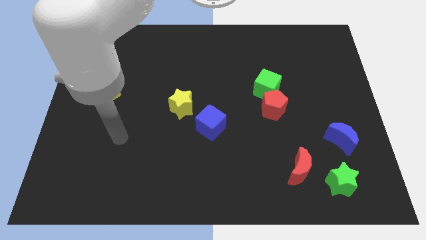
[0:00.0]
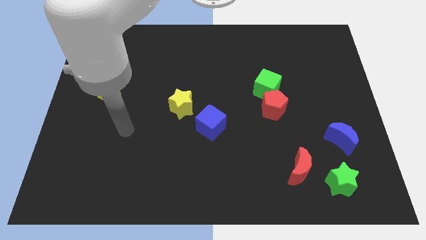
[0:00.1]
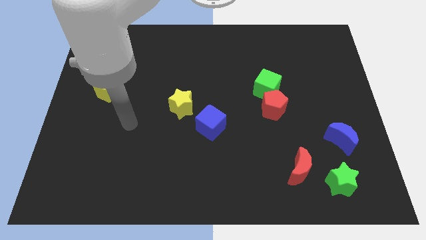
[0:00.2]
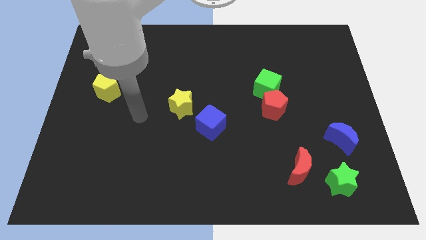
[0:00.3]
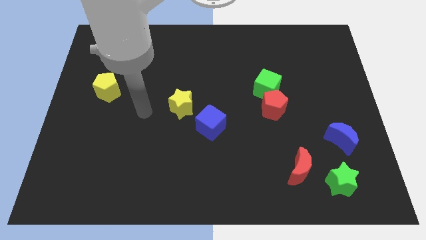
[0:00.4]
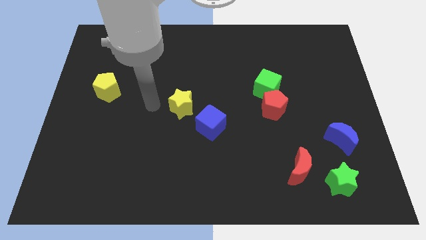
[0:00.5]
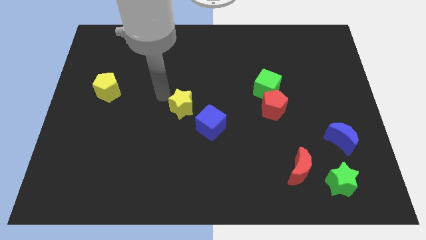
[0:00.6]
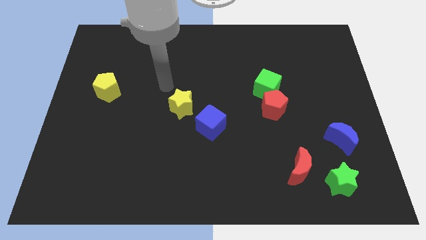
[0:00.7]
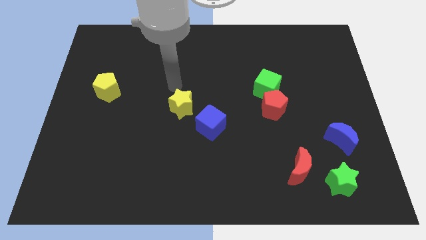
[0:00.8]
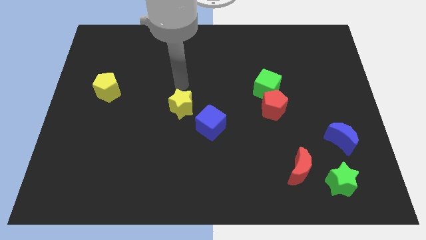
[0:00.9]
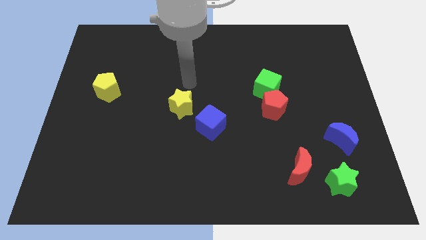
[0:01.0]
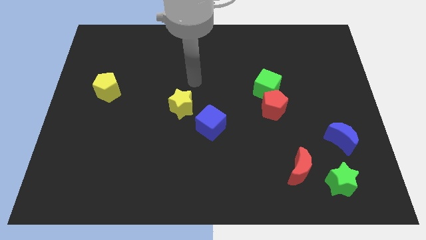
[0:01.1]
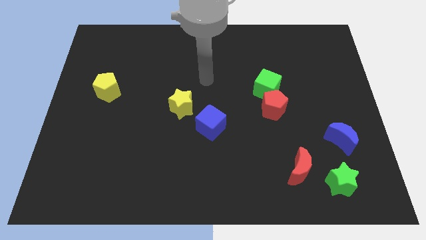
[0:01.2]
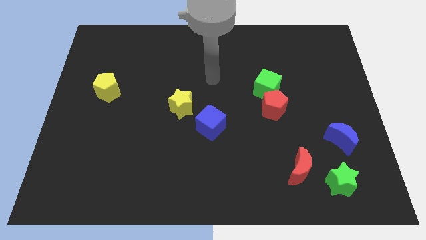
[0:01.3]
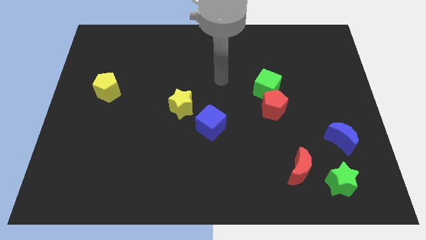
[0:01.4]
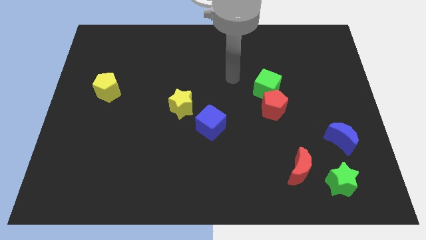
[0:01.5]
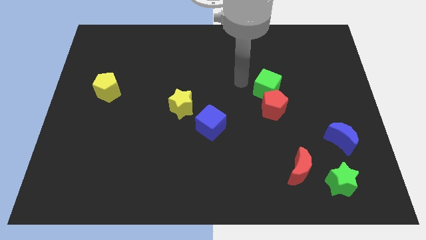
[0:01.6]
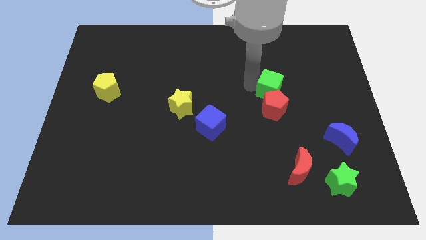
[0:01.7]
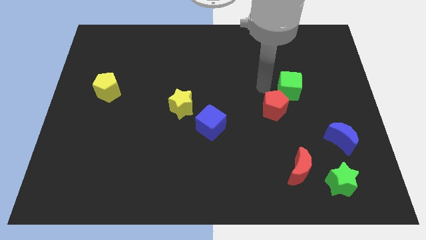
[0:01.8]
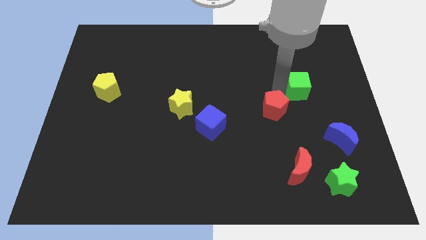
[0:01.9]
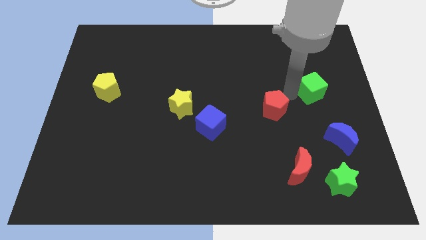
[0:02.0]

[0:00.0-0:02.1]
pull the red pentagon apart from the green cube

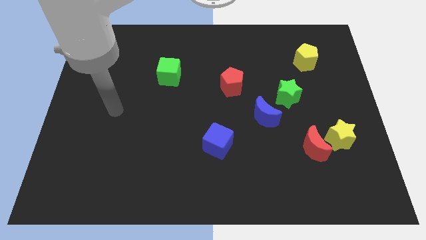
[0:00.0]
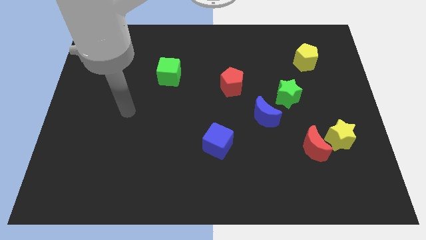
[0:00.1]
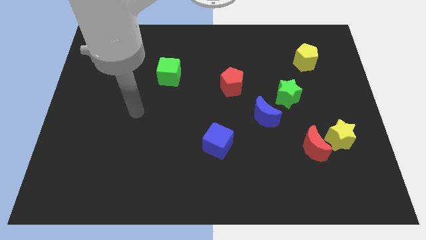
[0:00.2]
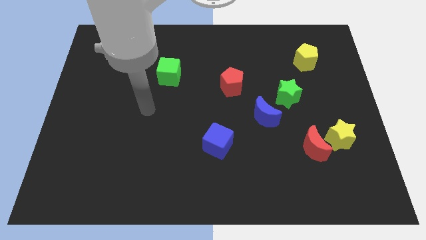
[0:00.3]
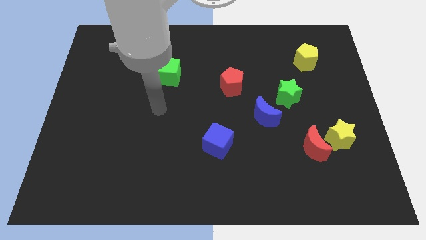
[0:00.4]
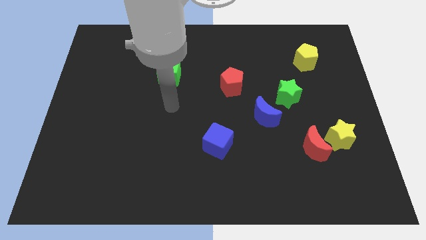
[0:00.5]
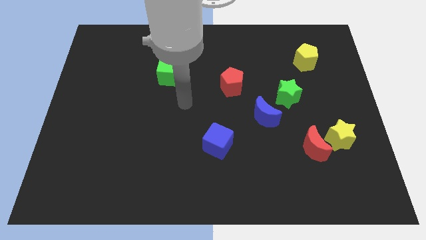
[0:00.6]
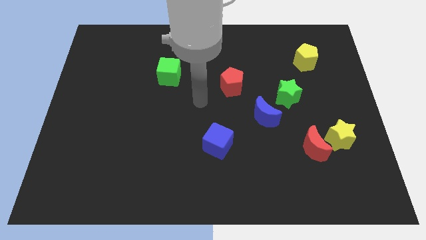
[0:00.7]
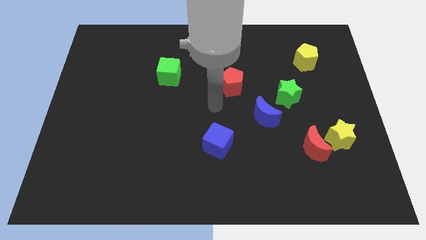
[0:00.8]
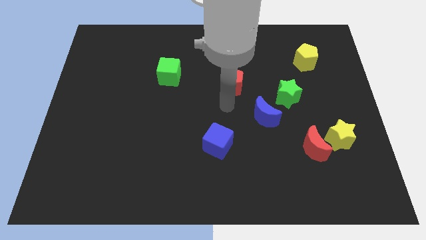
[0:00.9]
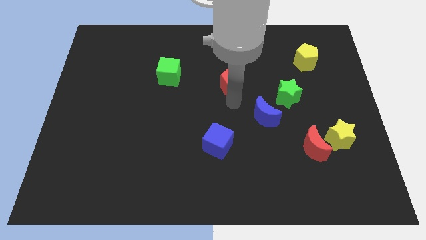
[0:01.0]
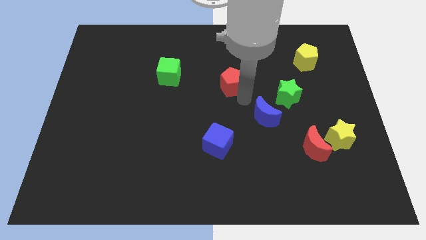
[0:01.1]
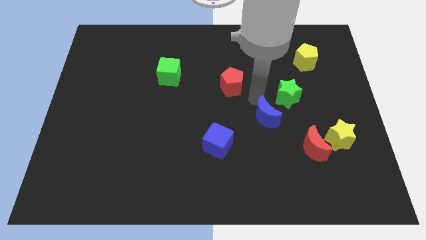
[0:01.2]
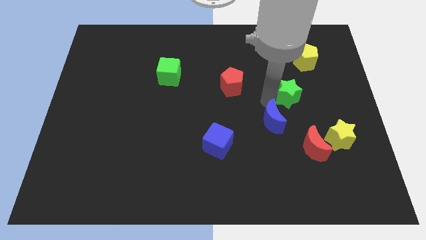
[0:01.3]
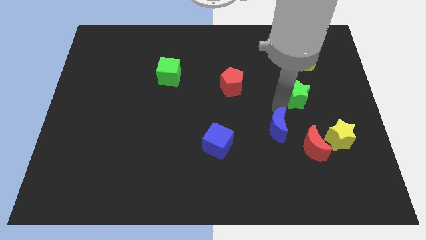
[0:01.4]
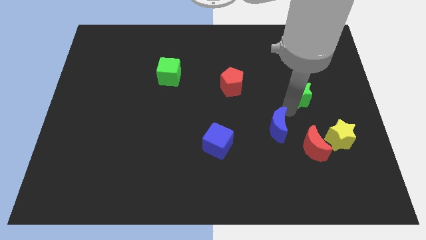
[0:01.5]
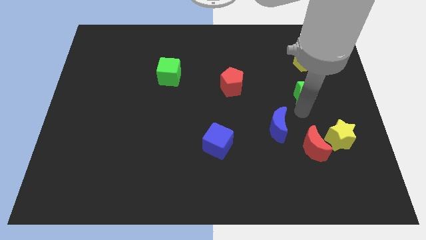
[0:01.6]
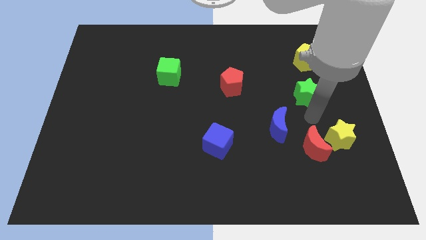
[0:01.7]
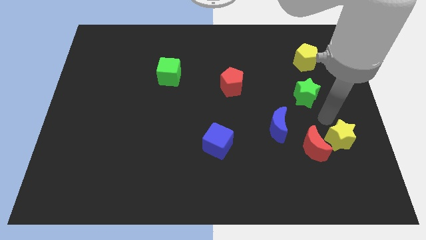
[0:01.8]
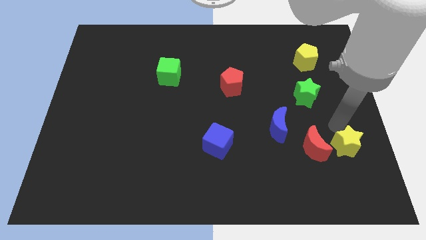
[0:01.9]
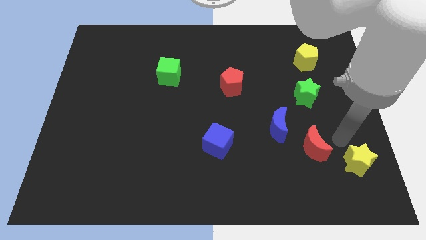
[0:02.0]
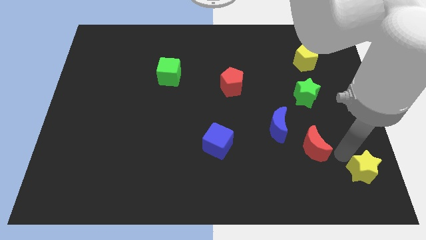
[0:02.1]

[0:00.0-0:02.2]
pull the red moon apart from the yellow star

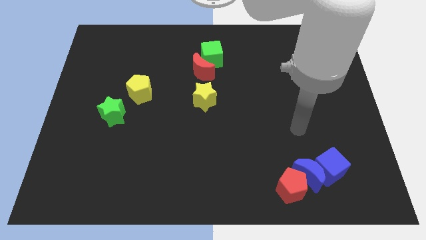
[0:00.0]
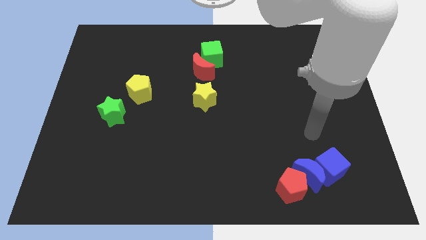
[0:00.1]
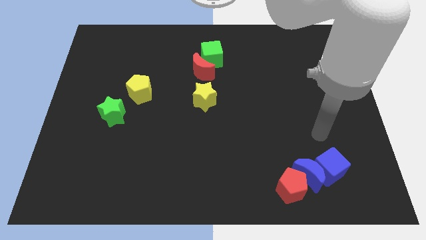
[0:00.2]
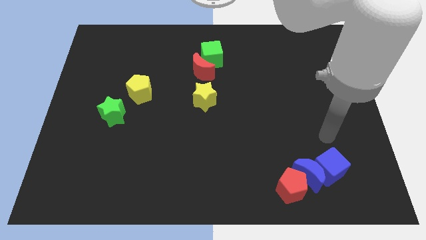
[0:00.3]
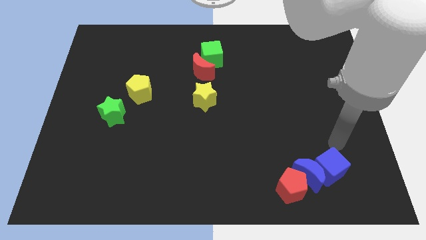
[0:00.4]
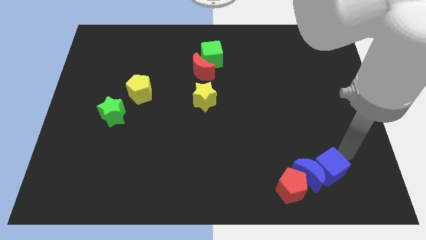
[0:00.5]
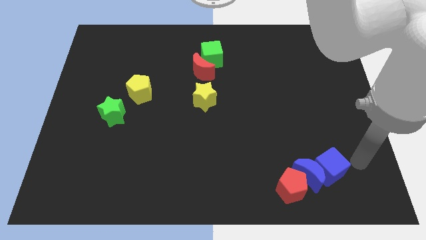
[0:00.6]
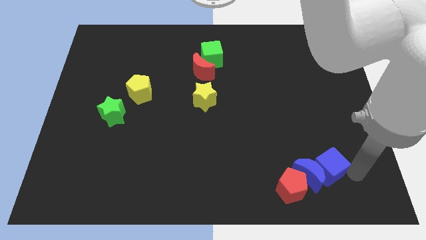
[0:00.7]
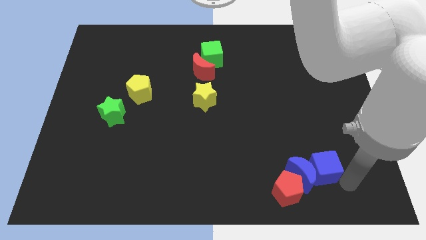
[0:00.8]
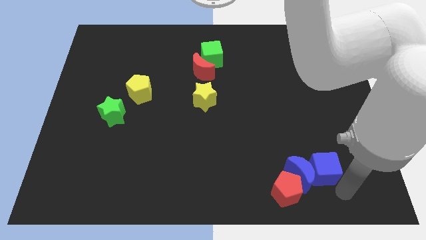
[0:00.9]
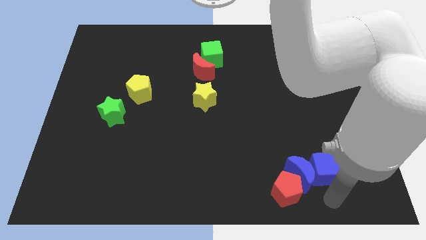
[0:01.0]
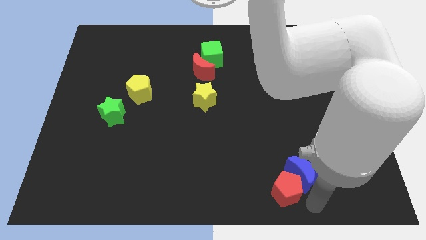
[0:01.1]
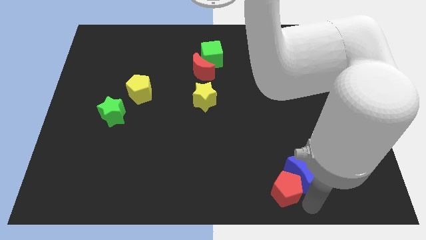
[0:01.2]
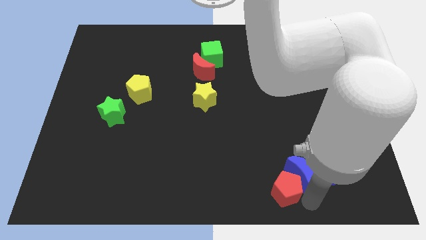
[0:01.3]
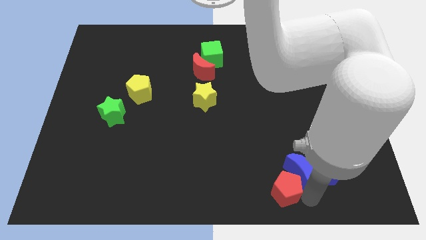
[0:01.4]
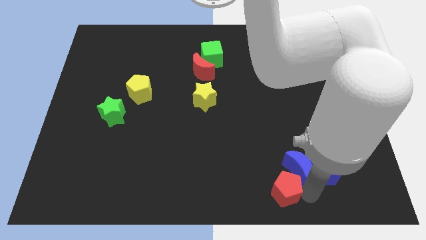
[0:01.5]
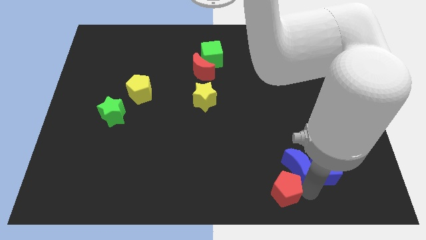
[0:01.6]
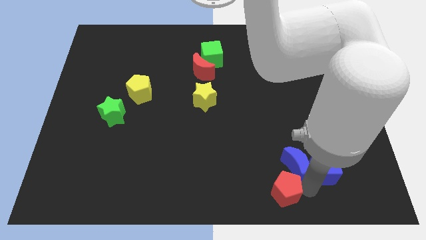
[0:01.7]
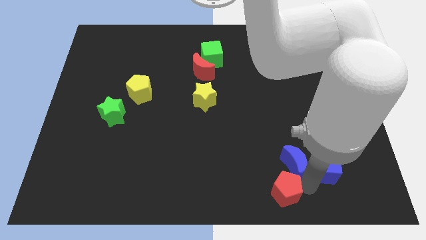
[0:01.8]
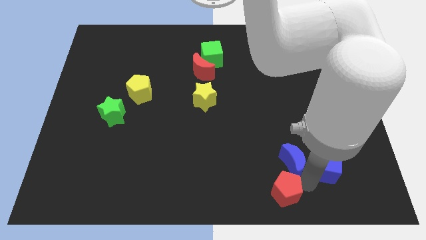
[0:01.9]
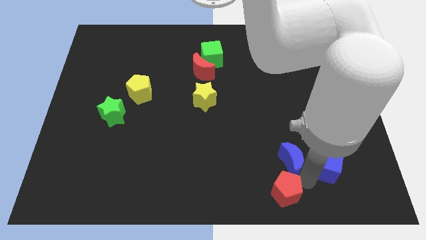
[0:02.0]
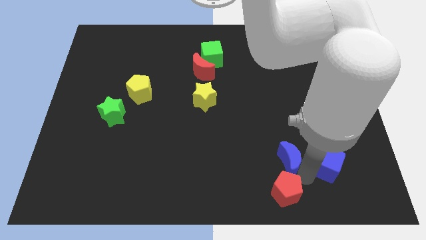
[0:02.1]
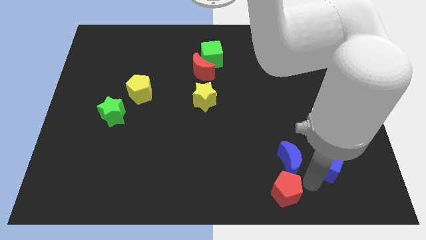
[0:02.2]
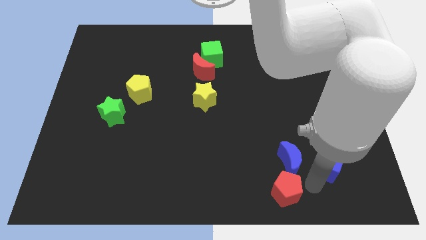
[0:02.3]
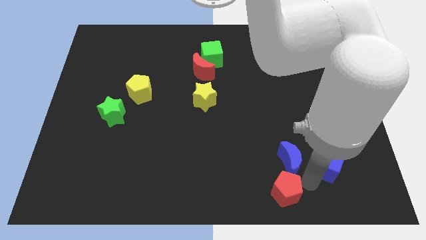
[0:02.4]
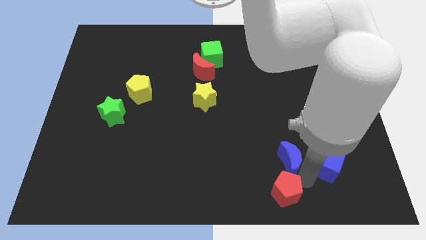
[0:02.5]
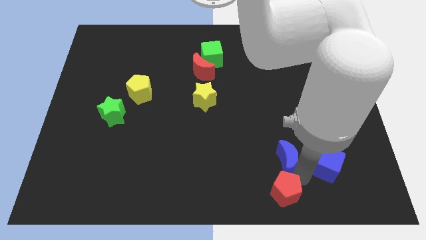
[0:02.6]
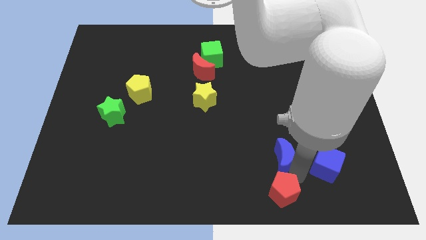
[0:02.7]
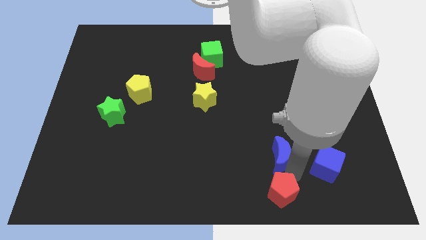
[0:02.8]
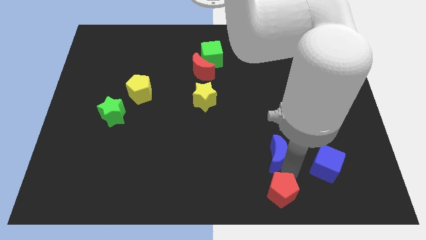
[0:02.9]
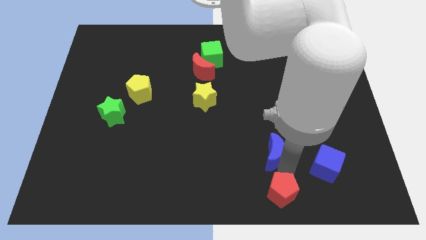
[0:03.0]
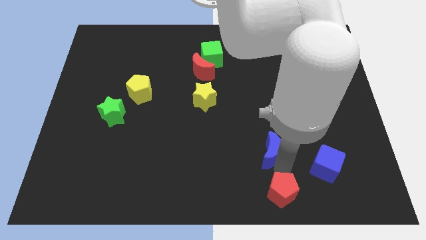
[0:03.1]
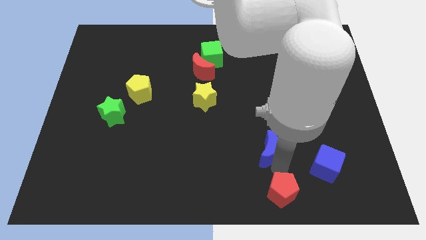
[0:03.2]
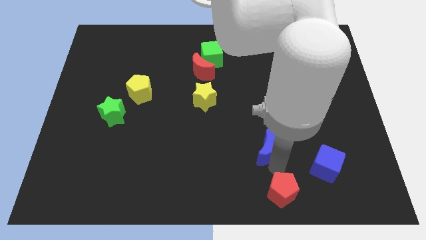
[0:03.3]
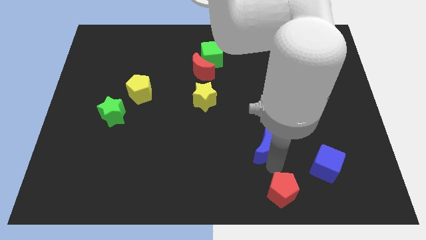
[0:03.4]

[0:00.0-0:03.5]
separate the blue moon from the blue cube and red pentagon

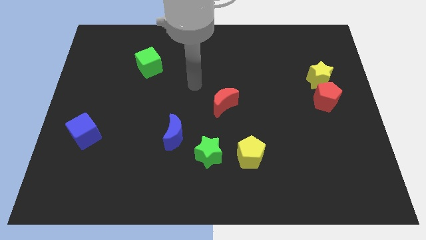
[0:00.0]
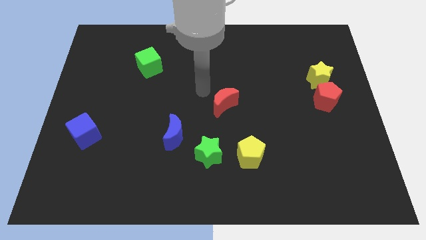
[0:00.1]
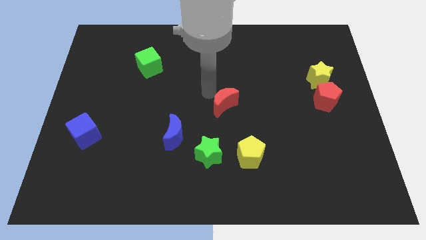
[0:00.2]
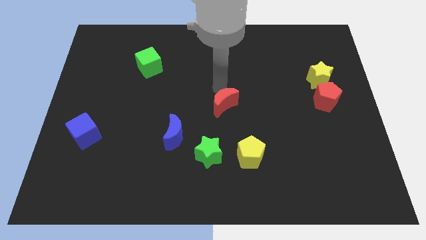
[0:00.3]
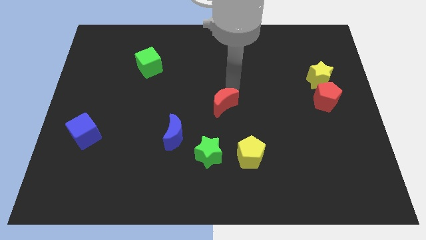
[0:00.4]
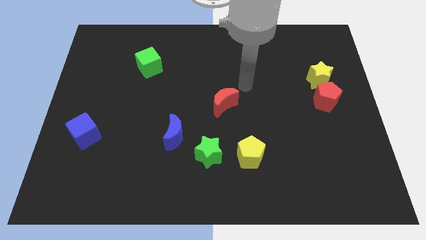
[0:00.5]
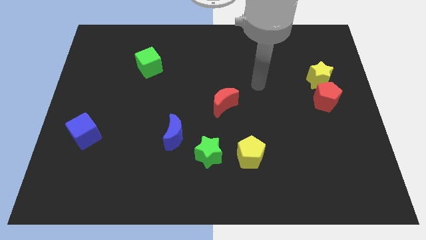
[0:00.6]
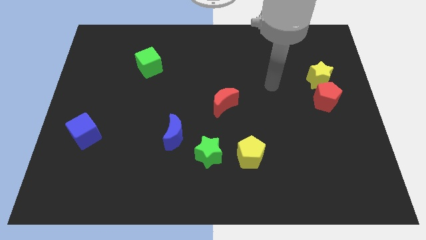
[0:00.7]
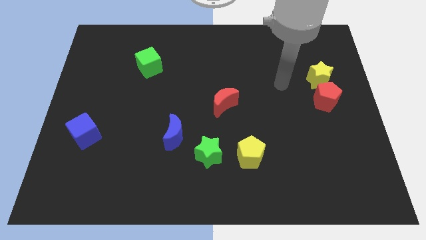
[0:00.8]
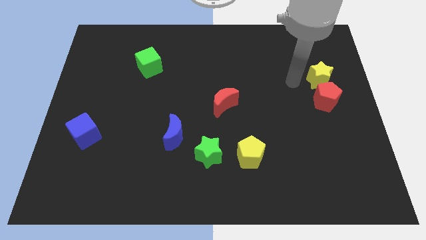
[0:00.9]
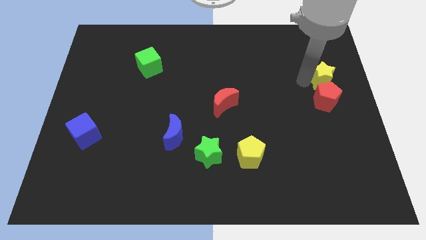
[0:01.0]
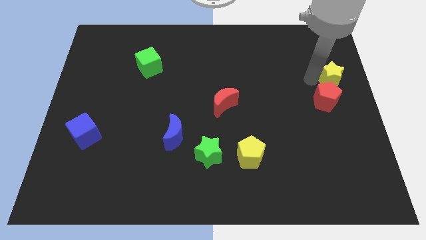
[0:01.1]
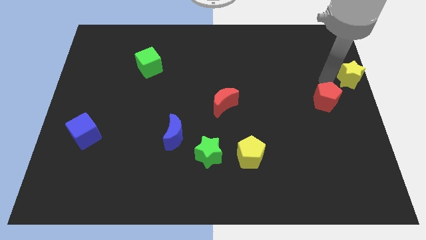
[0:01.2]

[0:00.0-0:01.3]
move the red pentagon away from the yellow star

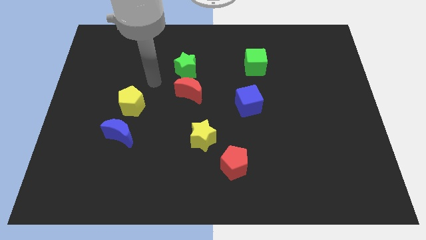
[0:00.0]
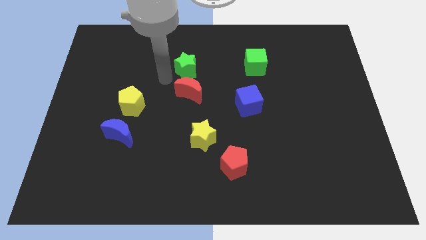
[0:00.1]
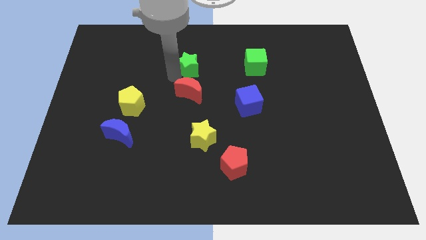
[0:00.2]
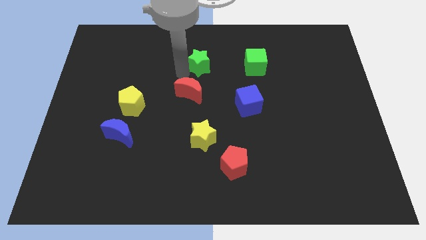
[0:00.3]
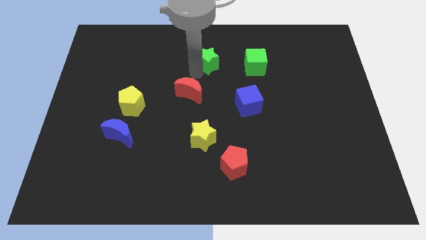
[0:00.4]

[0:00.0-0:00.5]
separate the red moon from the green star
